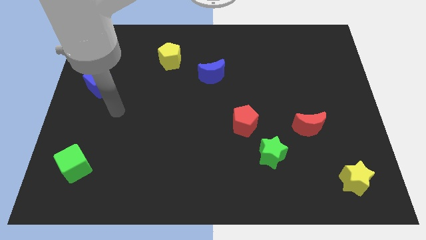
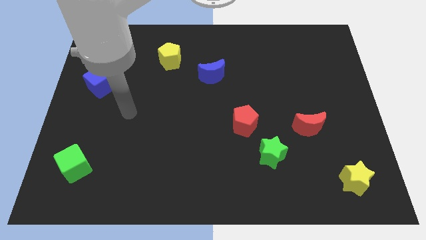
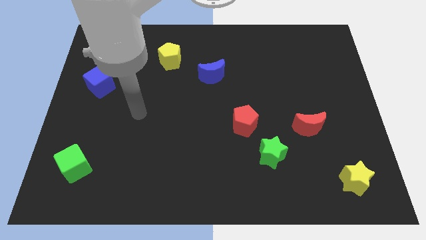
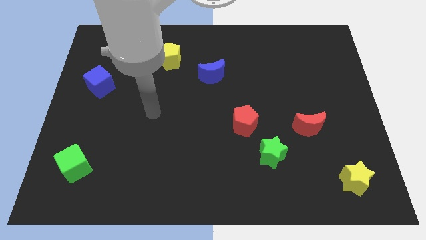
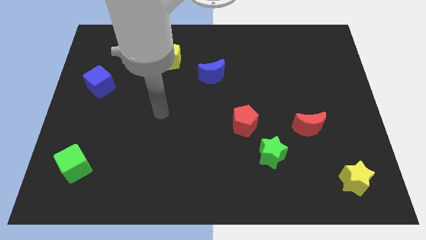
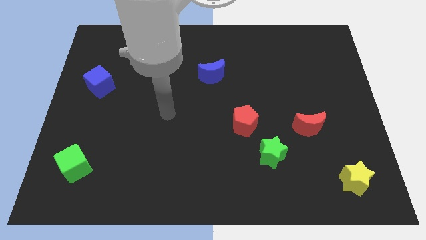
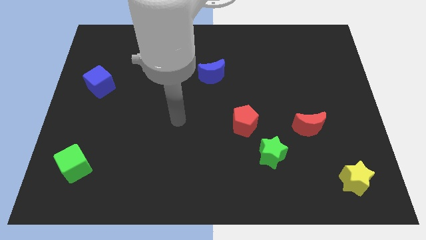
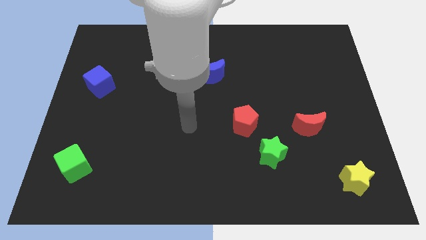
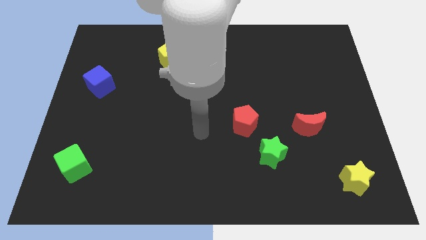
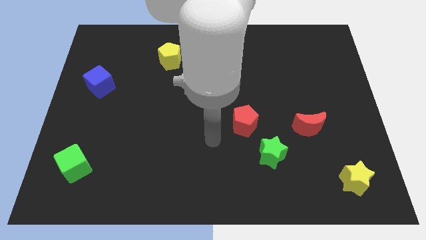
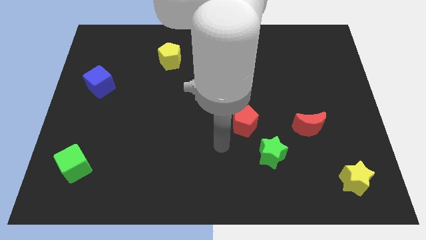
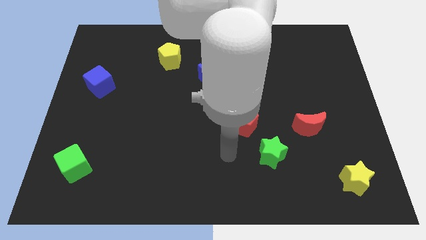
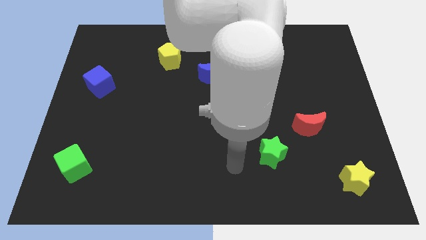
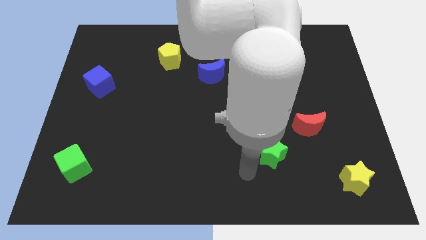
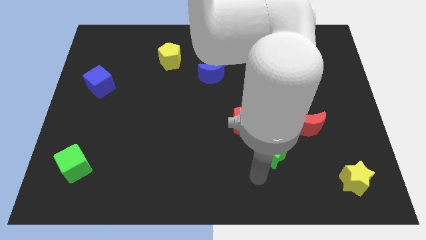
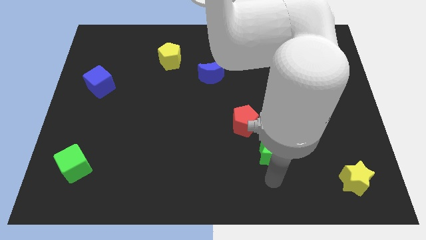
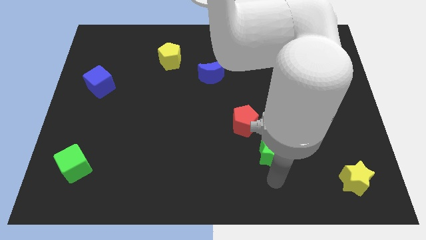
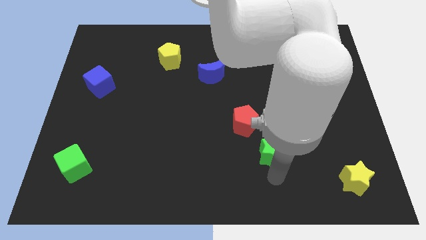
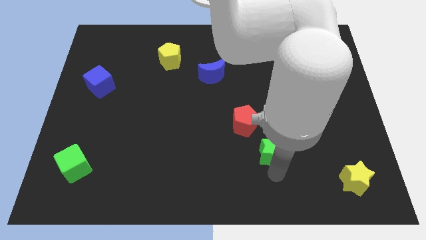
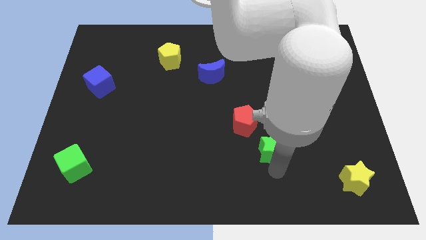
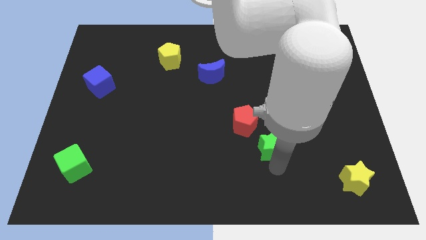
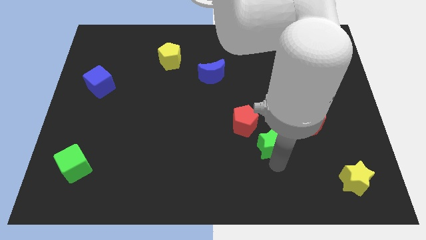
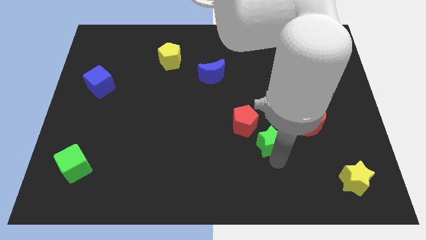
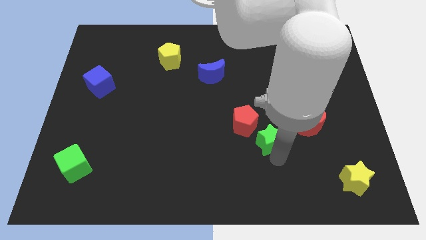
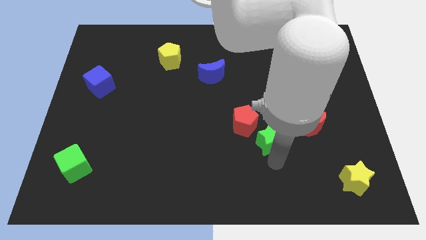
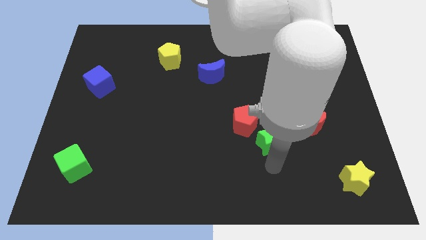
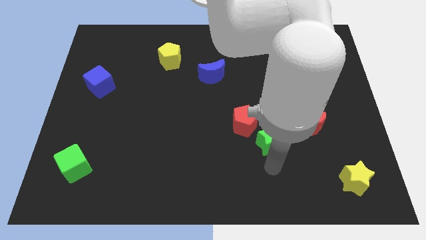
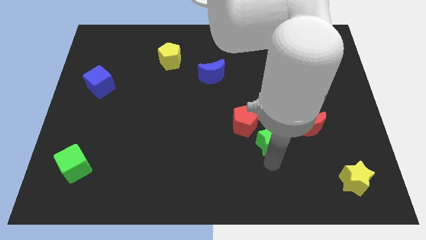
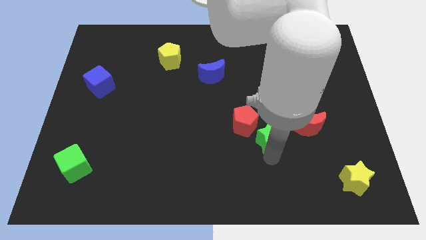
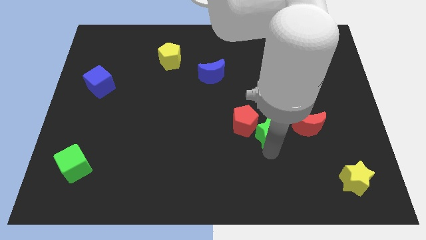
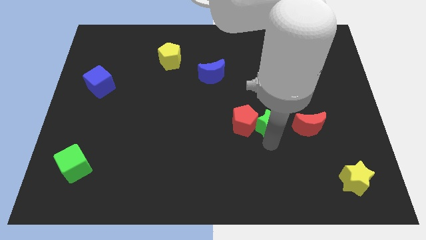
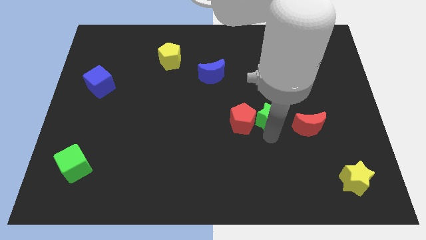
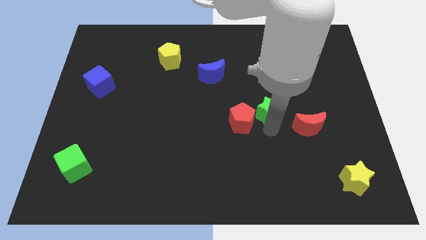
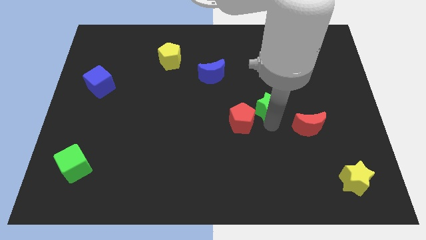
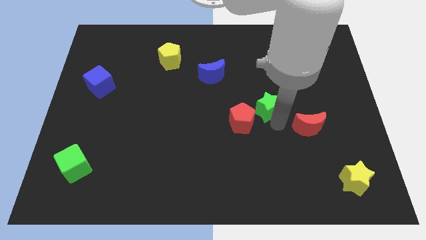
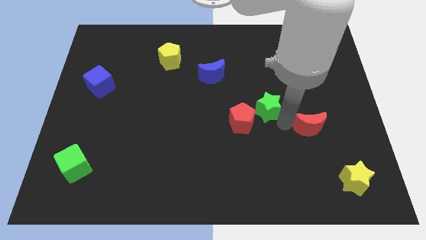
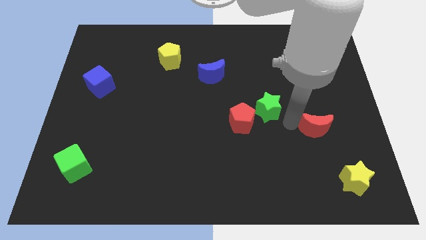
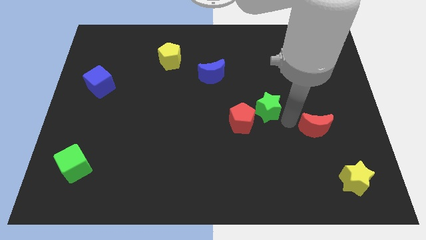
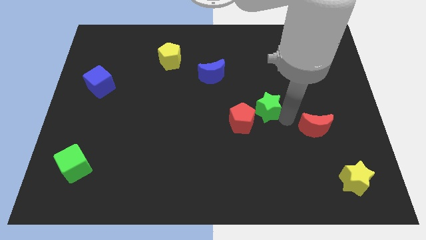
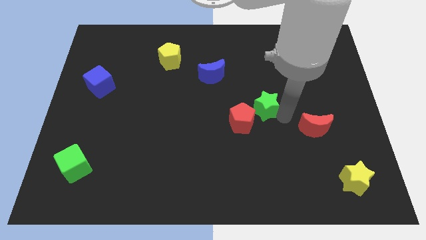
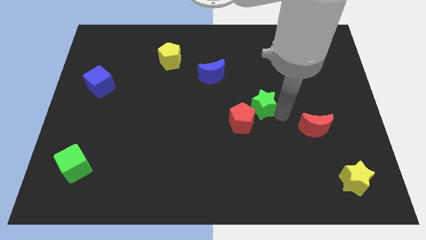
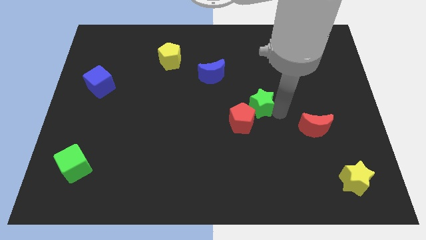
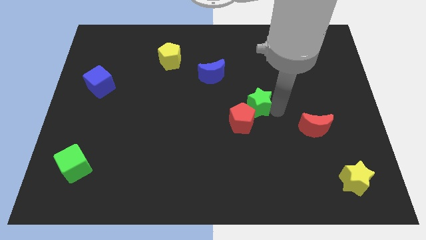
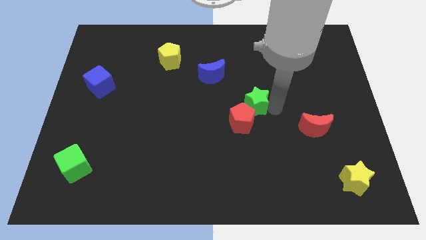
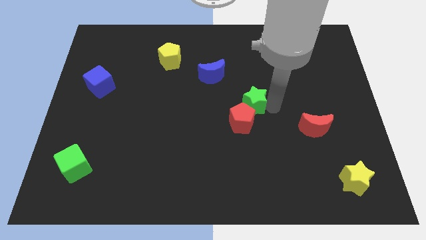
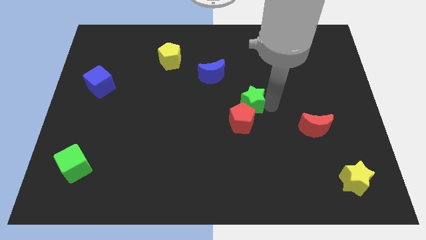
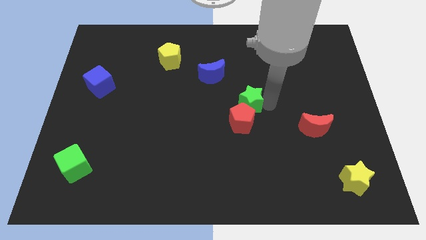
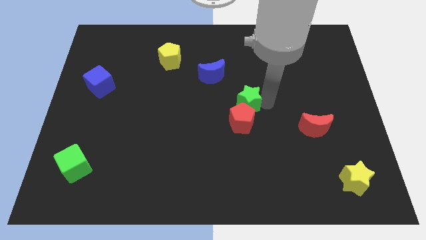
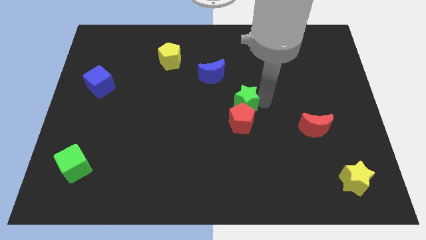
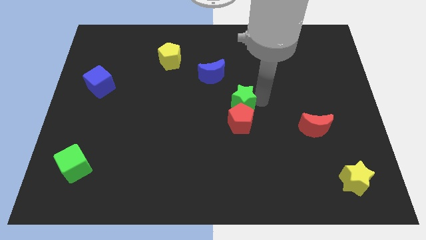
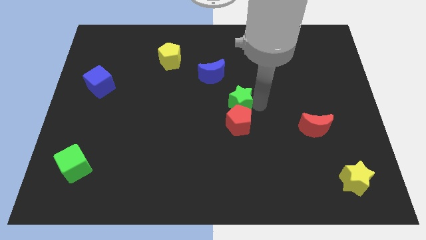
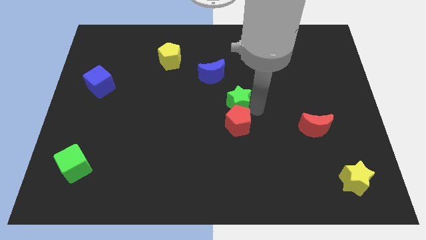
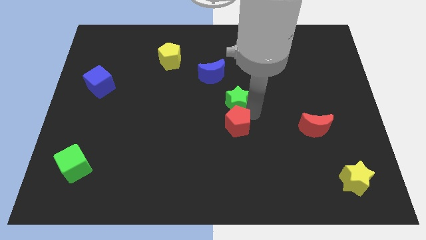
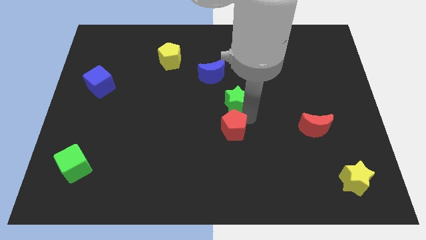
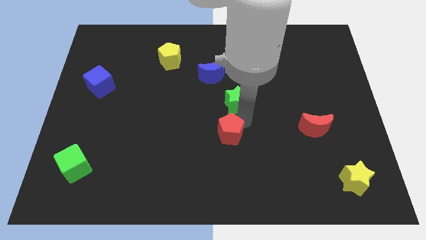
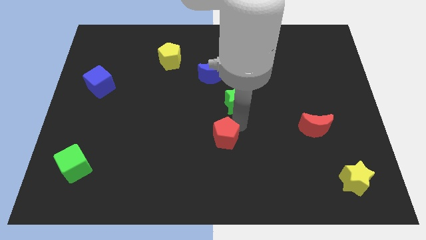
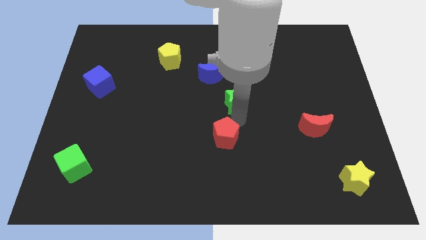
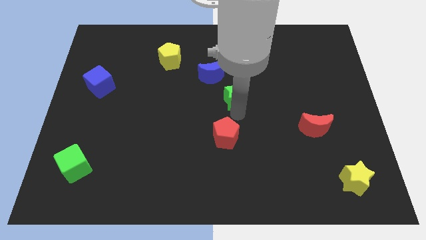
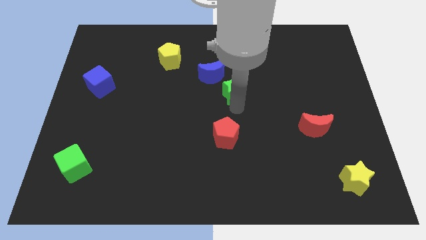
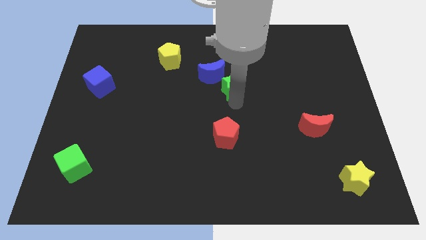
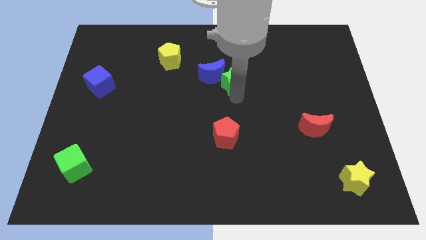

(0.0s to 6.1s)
push the green star next to the blue moon

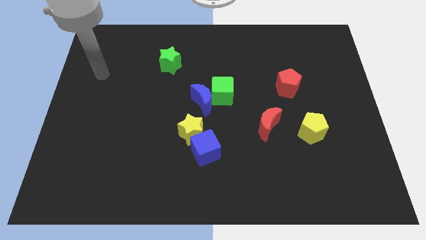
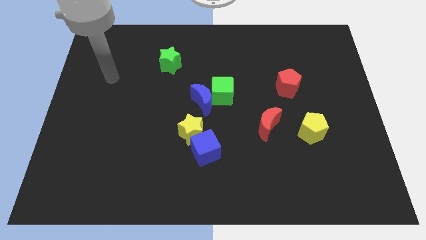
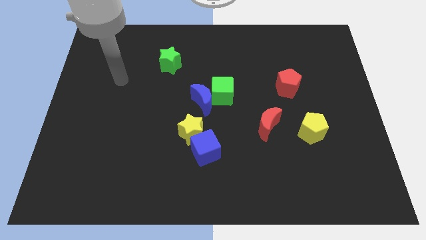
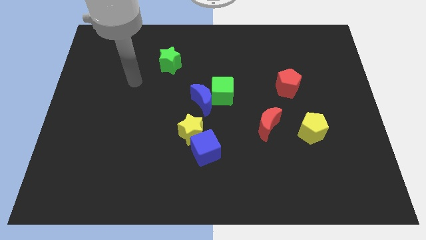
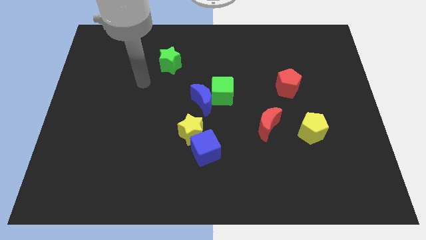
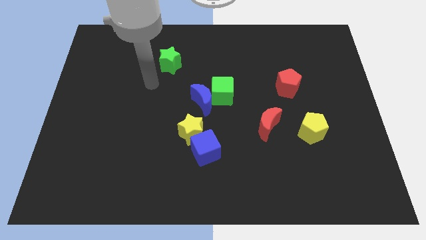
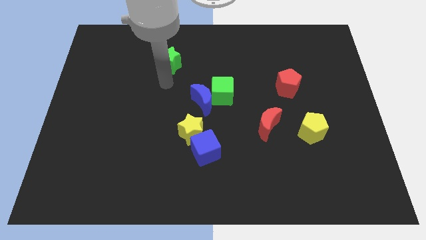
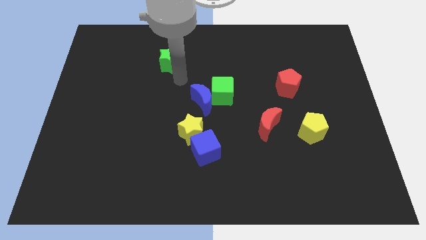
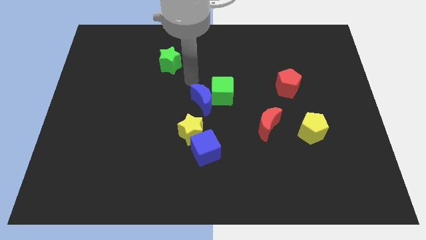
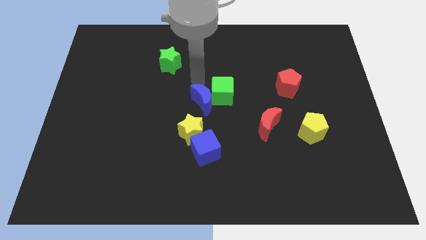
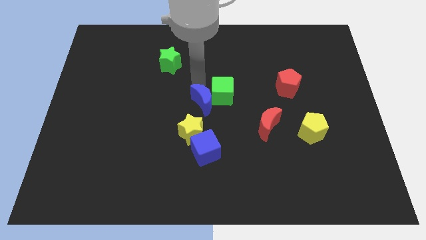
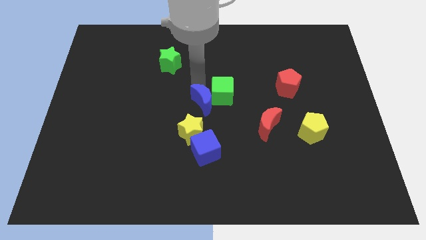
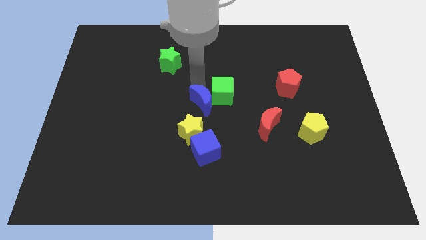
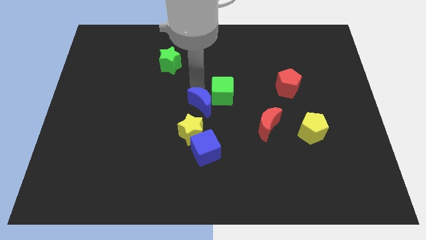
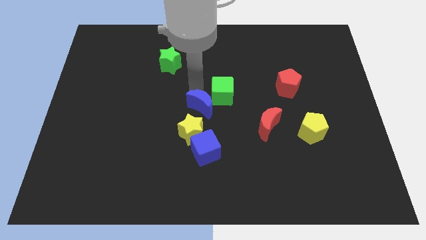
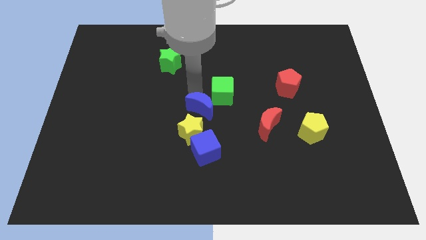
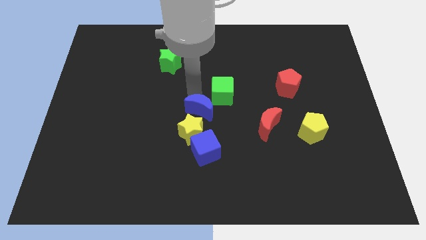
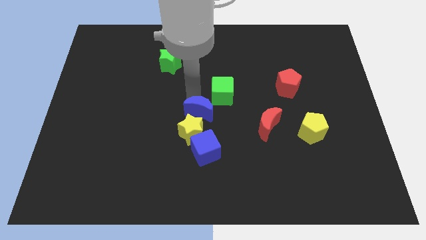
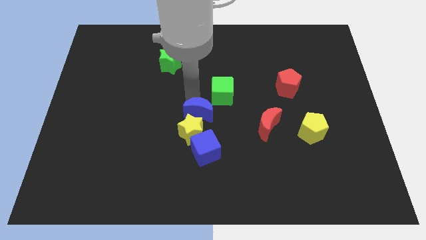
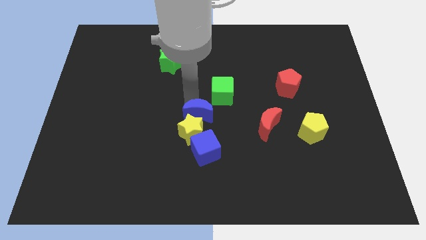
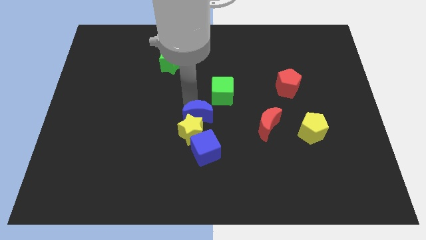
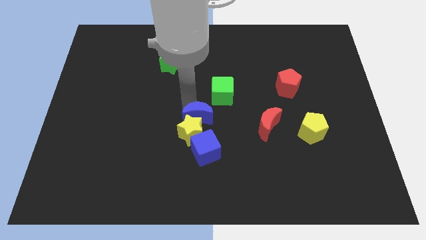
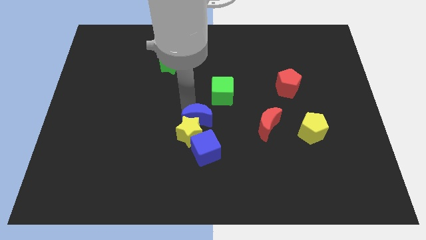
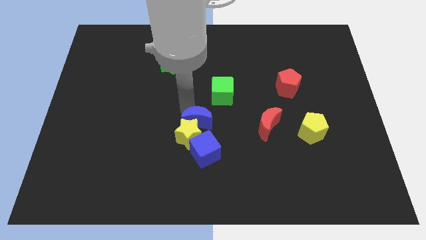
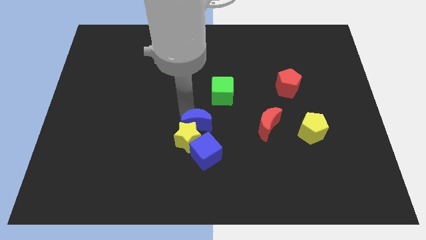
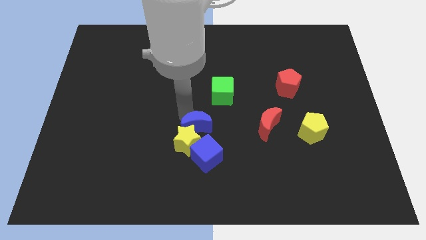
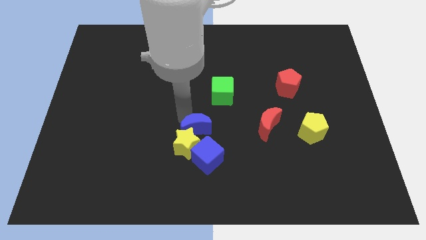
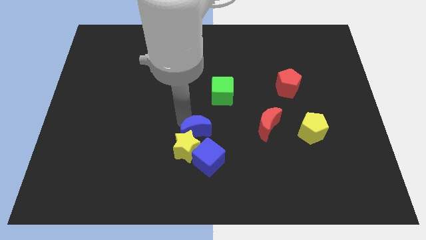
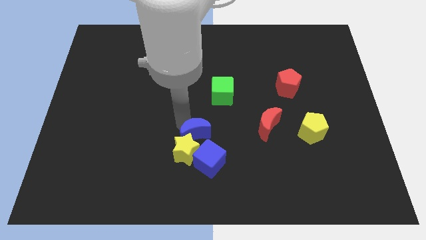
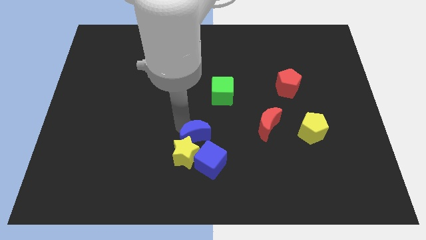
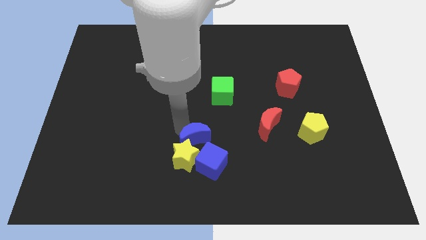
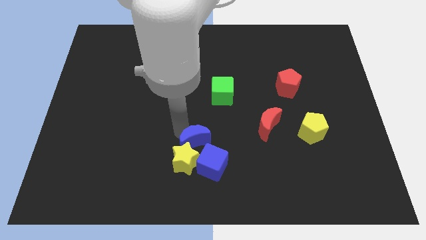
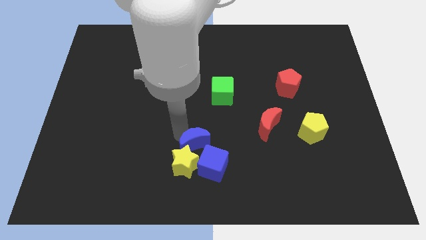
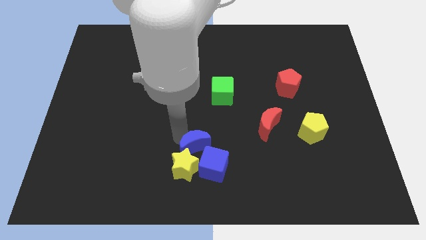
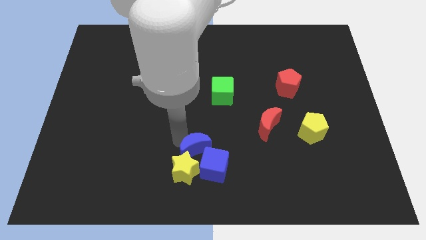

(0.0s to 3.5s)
slide the blue moon to the blue cube
